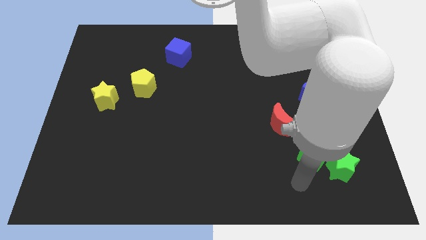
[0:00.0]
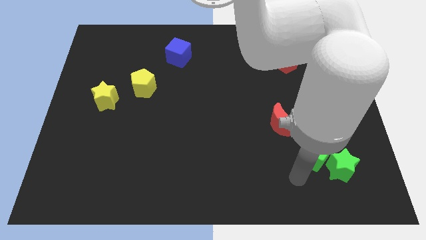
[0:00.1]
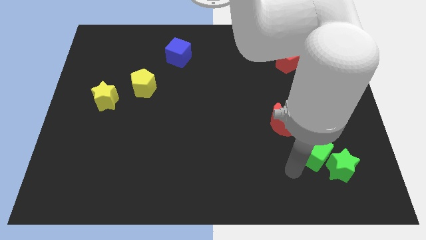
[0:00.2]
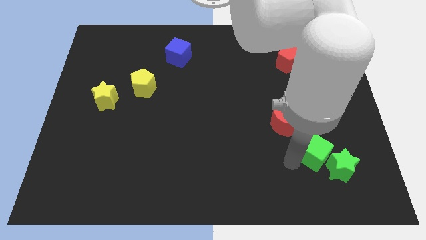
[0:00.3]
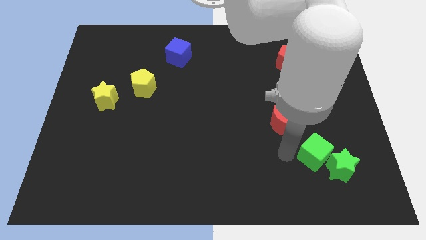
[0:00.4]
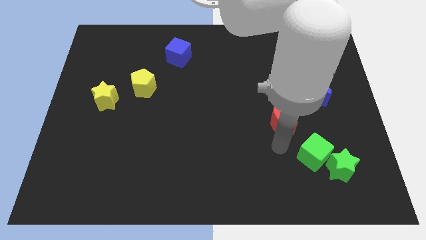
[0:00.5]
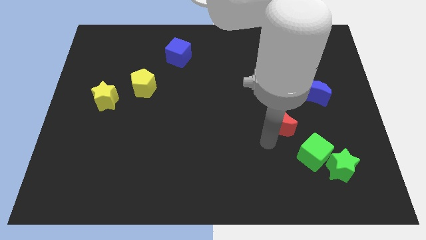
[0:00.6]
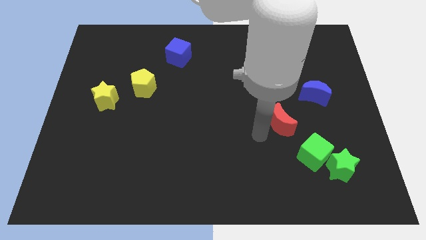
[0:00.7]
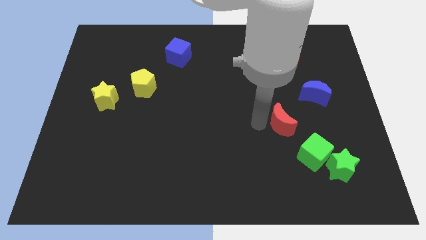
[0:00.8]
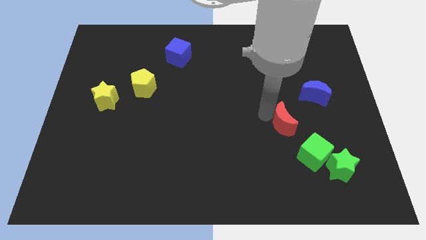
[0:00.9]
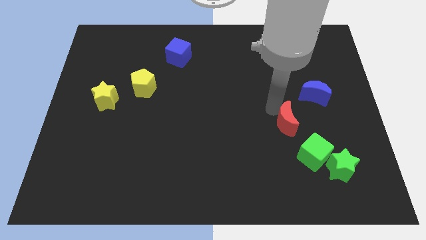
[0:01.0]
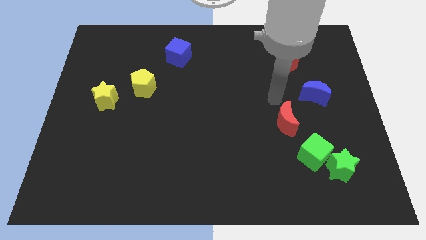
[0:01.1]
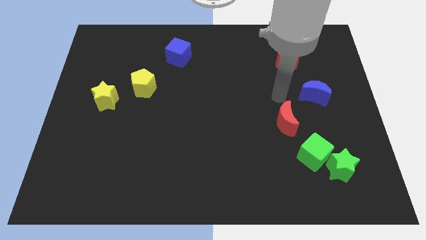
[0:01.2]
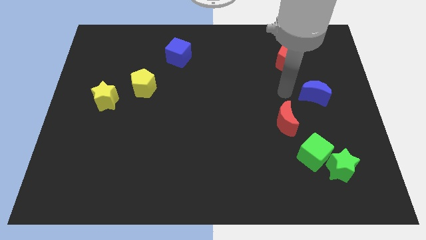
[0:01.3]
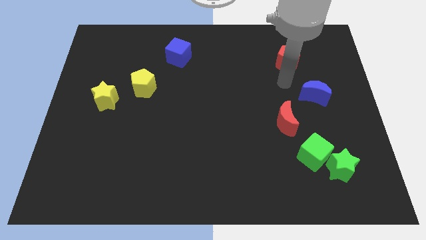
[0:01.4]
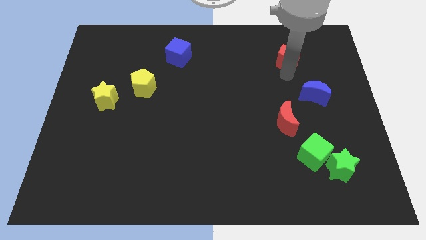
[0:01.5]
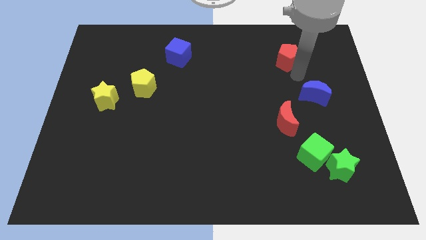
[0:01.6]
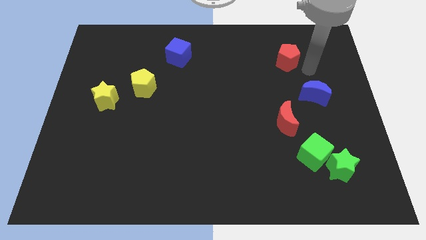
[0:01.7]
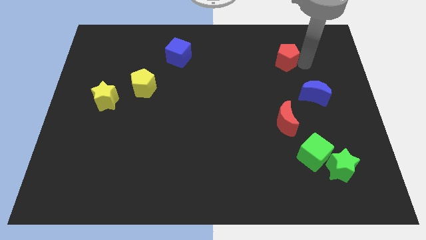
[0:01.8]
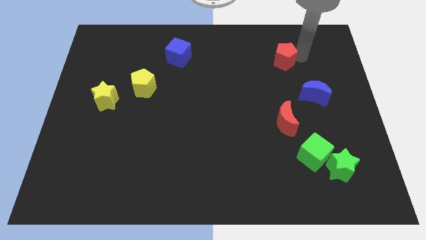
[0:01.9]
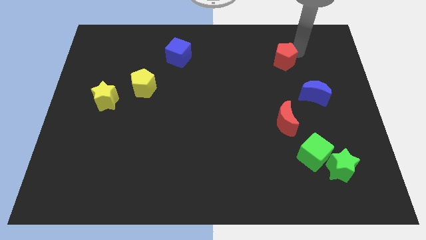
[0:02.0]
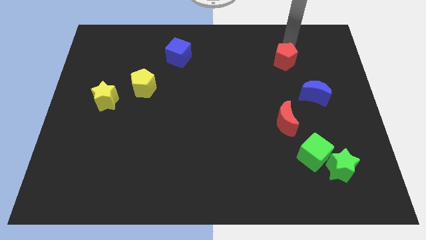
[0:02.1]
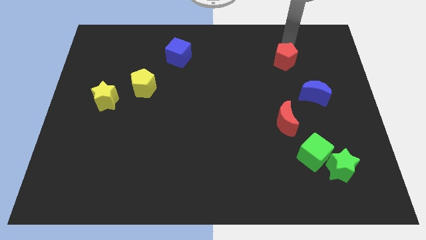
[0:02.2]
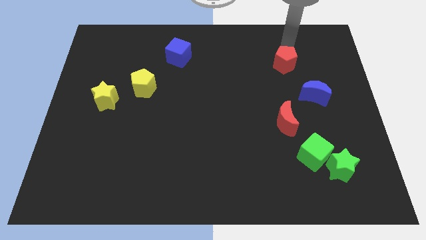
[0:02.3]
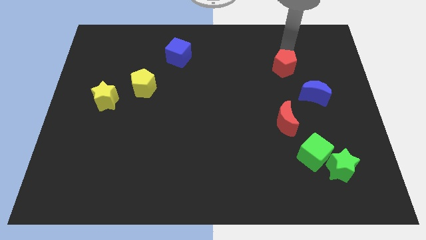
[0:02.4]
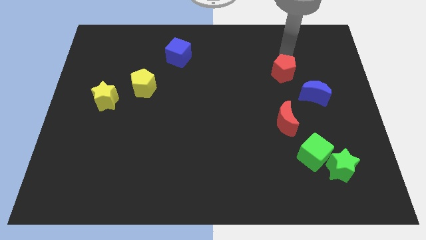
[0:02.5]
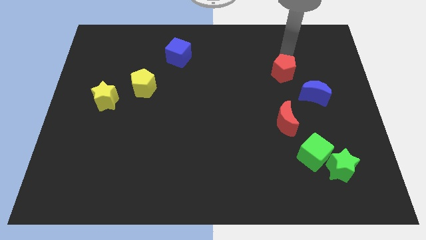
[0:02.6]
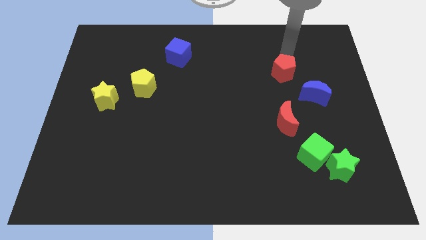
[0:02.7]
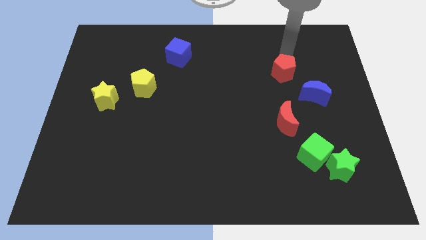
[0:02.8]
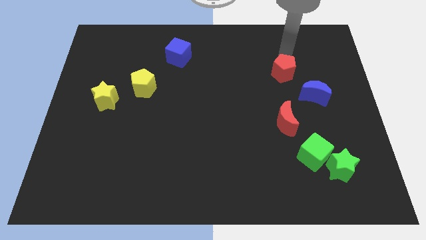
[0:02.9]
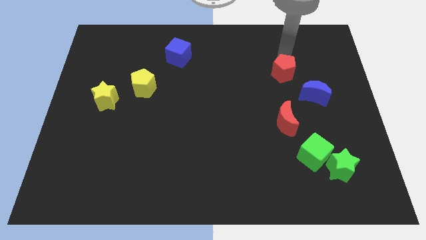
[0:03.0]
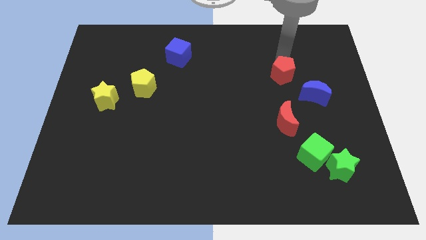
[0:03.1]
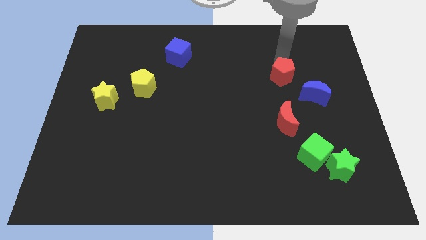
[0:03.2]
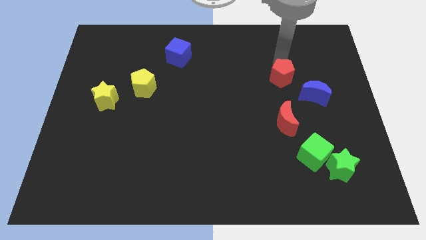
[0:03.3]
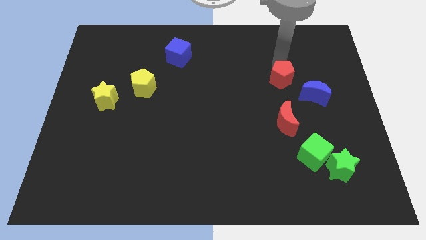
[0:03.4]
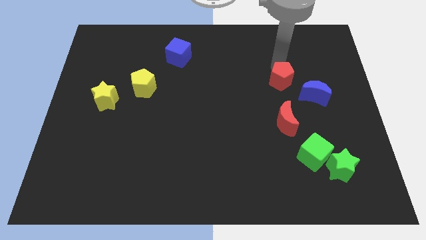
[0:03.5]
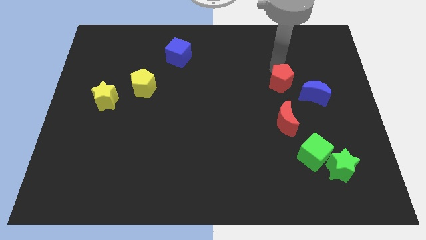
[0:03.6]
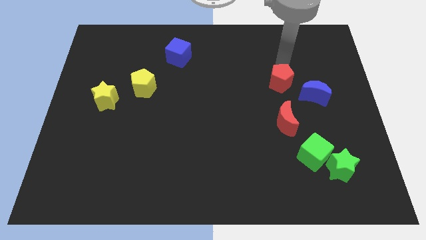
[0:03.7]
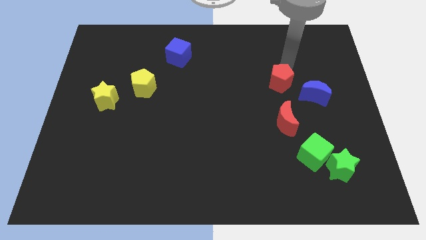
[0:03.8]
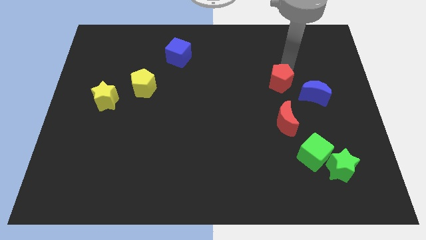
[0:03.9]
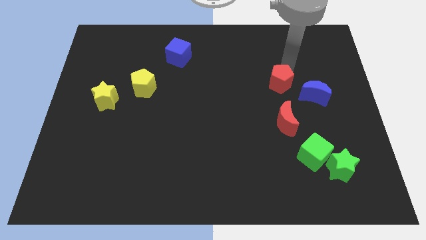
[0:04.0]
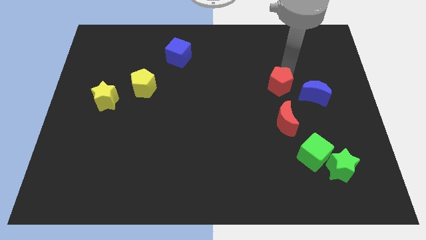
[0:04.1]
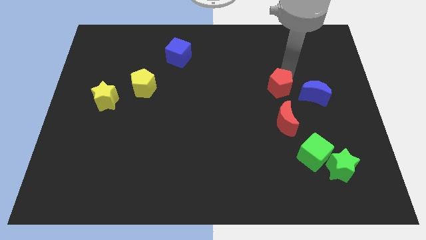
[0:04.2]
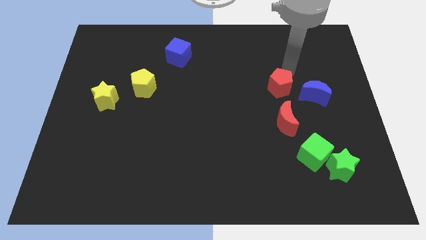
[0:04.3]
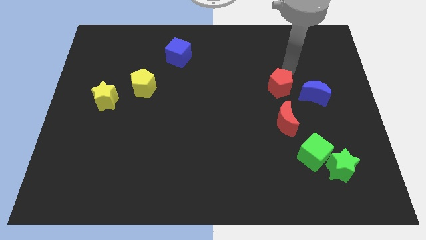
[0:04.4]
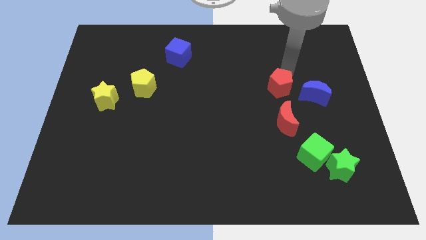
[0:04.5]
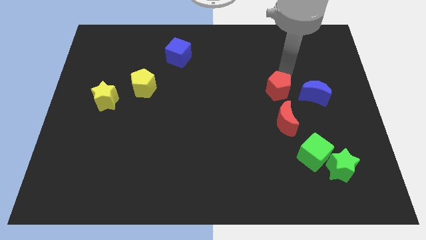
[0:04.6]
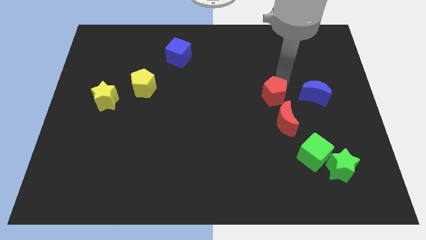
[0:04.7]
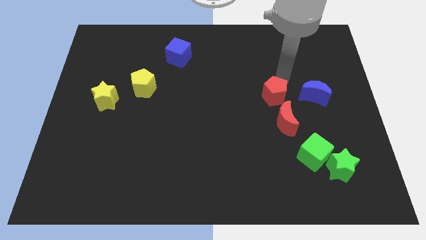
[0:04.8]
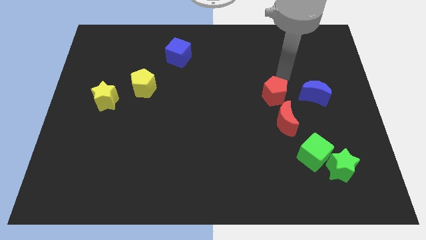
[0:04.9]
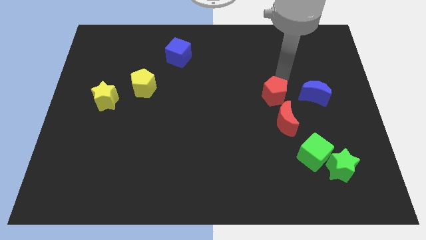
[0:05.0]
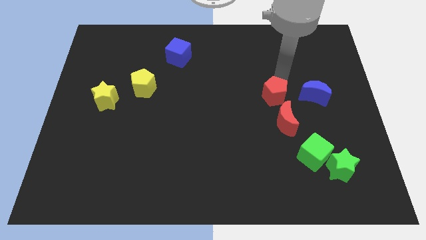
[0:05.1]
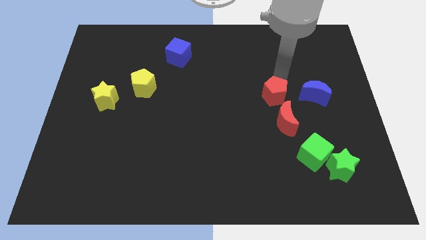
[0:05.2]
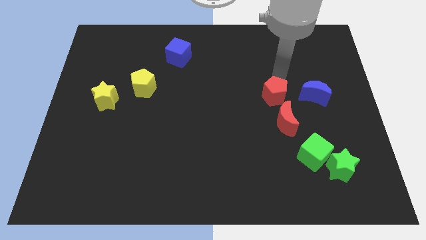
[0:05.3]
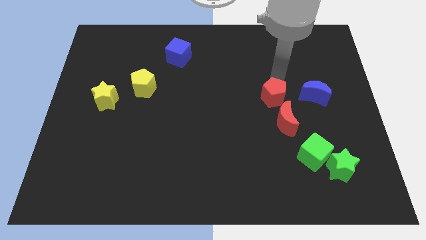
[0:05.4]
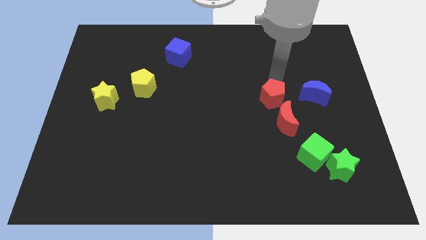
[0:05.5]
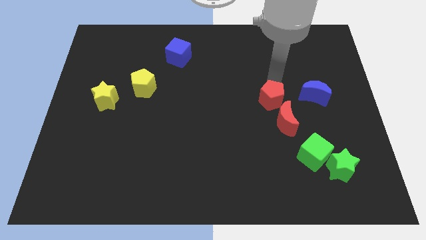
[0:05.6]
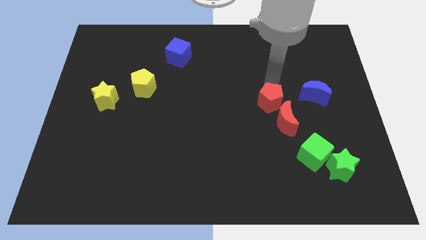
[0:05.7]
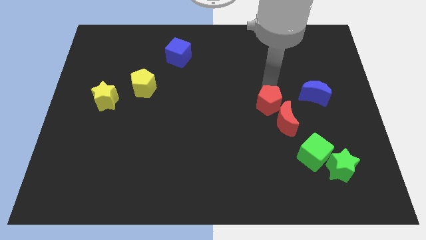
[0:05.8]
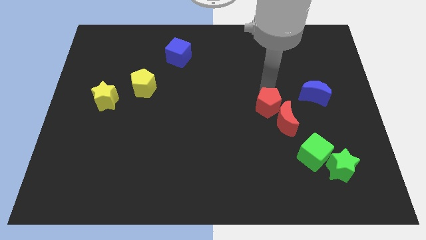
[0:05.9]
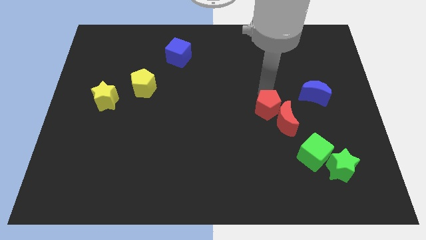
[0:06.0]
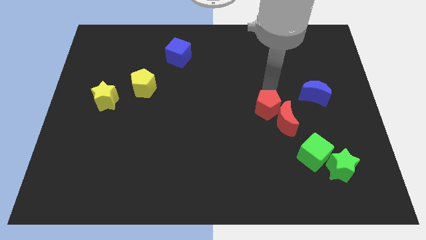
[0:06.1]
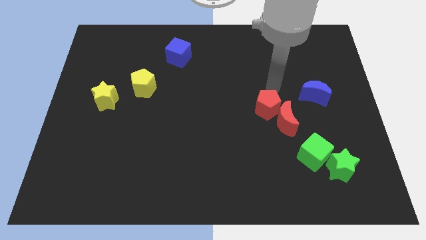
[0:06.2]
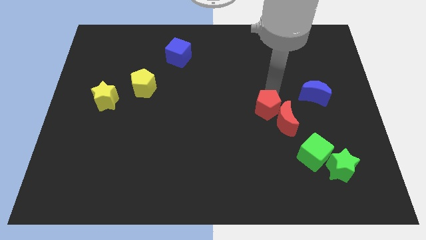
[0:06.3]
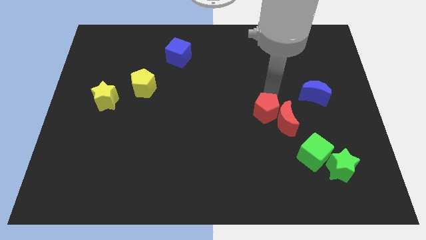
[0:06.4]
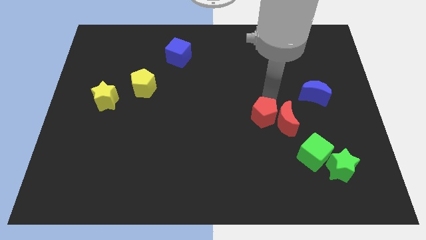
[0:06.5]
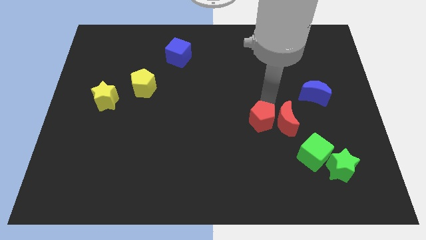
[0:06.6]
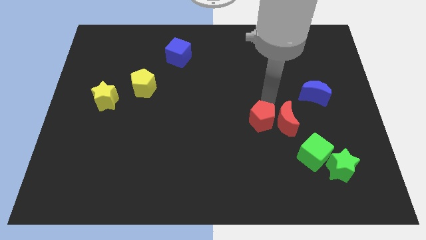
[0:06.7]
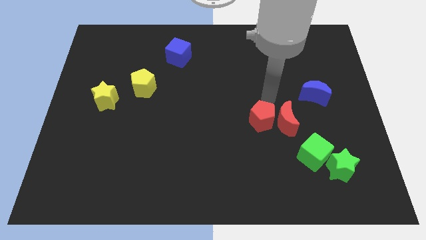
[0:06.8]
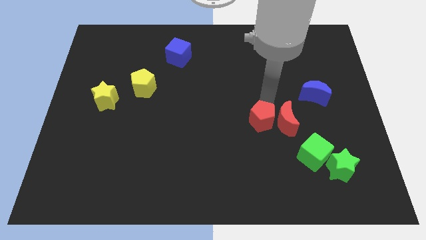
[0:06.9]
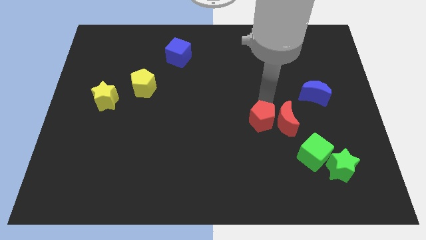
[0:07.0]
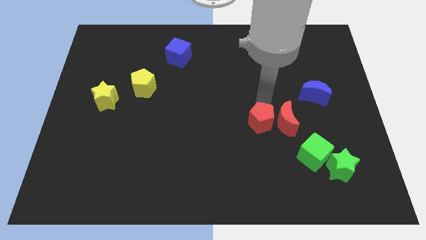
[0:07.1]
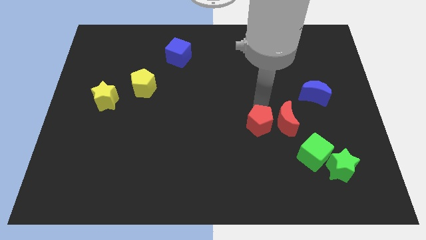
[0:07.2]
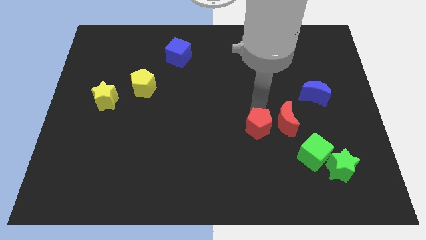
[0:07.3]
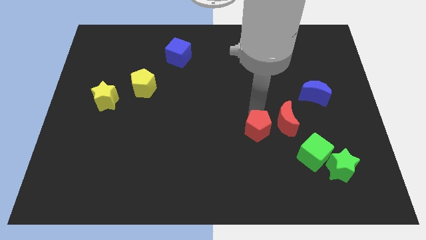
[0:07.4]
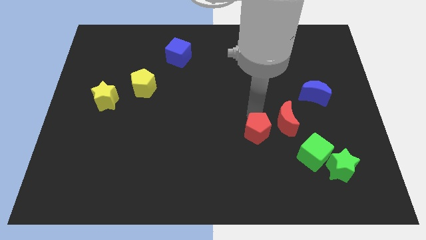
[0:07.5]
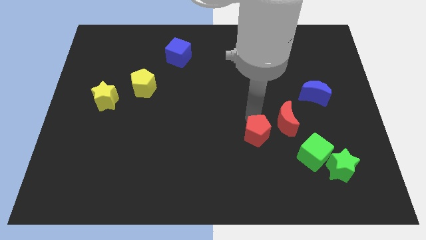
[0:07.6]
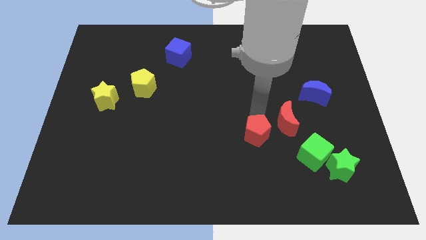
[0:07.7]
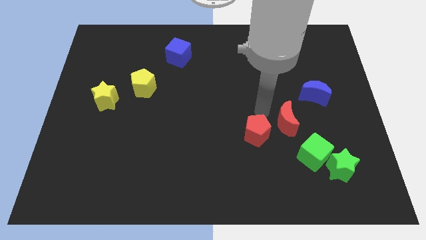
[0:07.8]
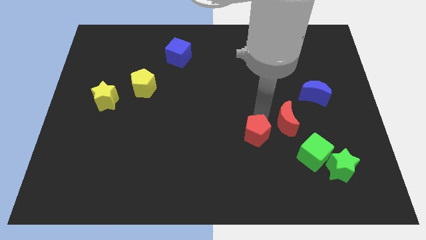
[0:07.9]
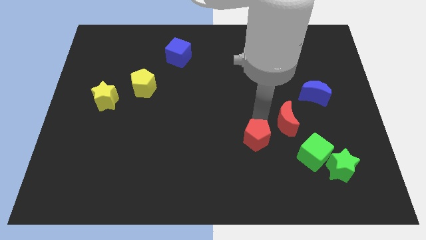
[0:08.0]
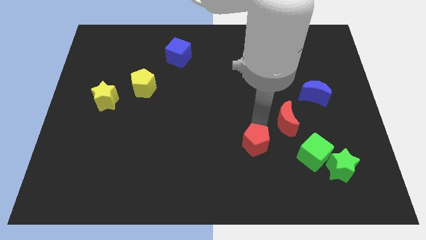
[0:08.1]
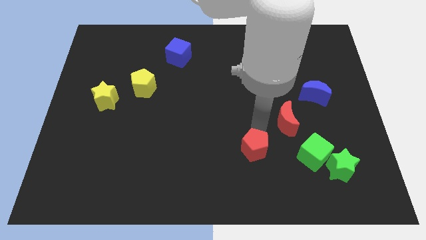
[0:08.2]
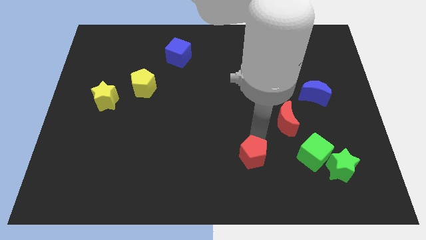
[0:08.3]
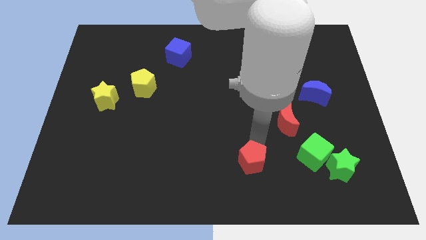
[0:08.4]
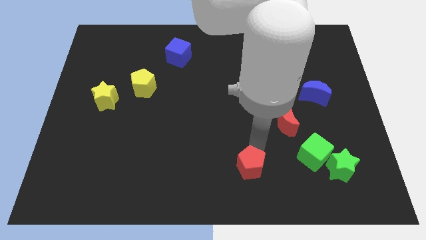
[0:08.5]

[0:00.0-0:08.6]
slide the red pentagon to the bottom
